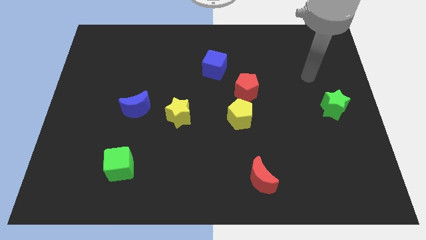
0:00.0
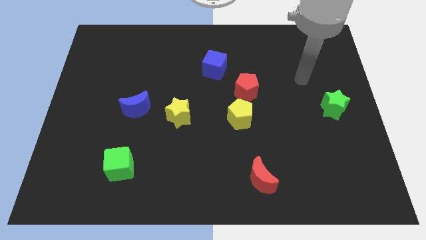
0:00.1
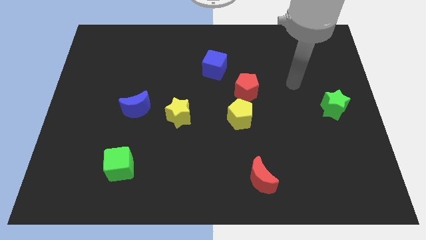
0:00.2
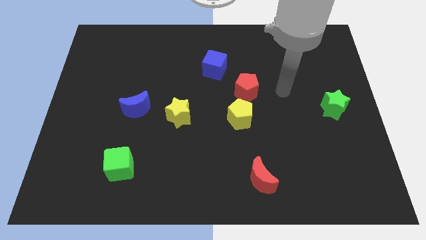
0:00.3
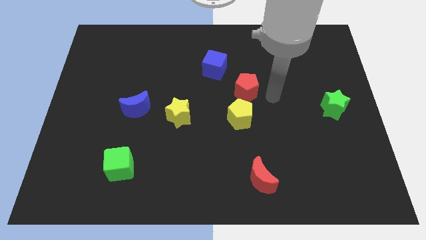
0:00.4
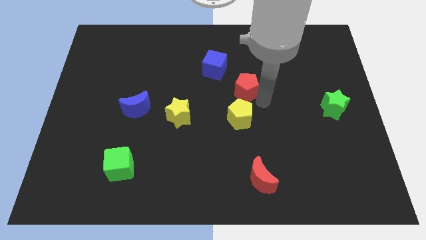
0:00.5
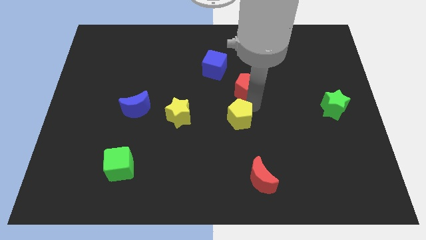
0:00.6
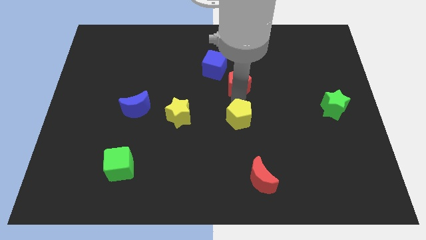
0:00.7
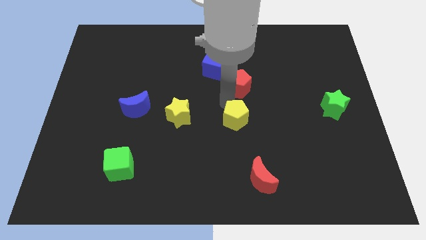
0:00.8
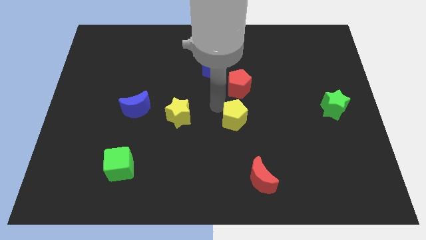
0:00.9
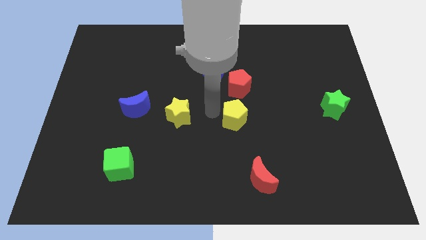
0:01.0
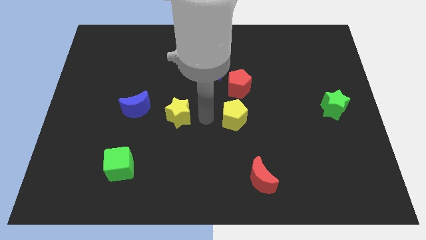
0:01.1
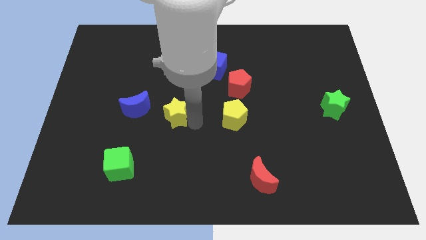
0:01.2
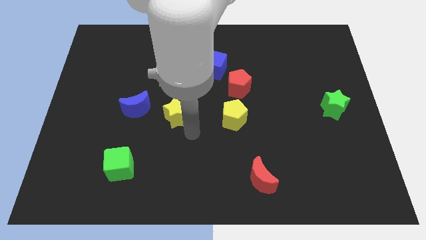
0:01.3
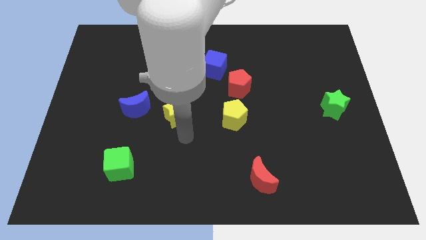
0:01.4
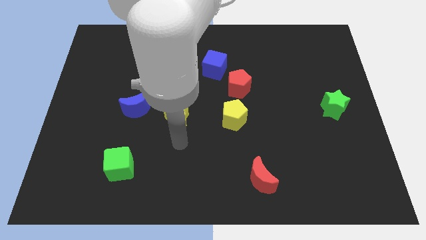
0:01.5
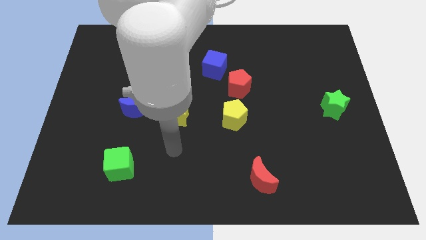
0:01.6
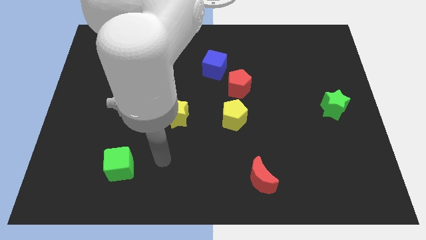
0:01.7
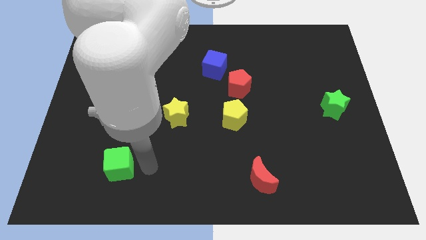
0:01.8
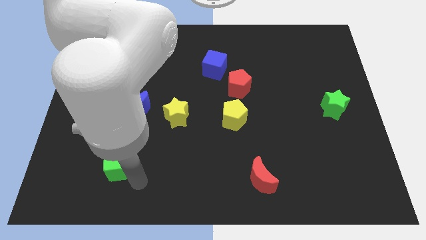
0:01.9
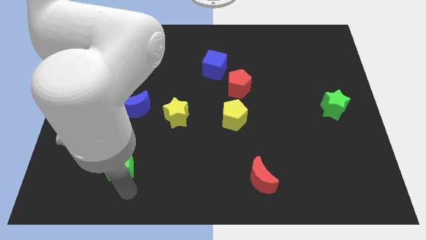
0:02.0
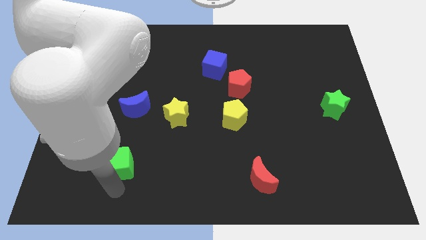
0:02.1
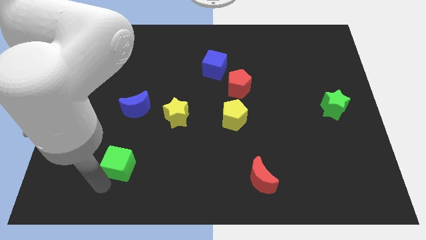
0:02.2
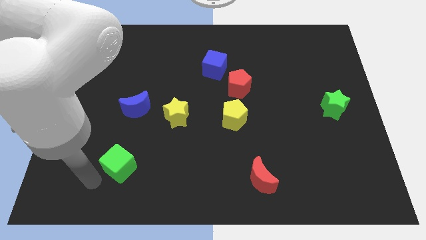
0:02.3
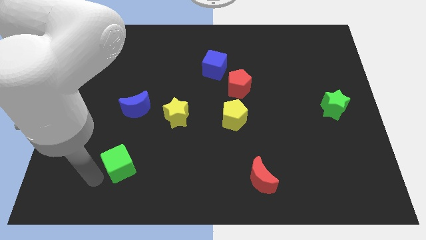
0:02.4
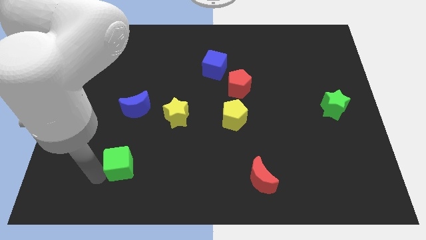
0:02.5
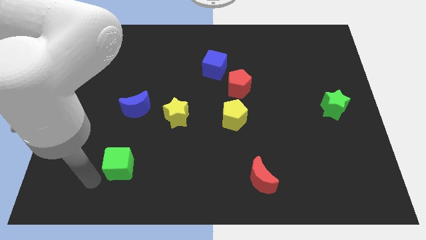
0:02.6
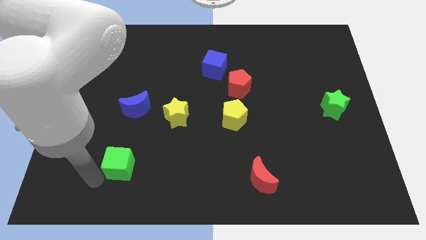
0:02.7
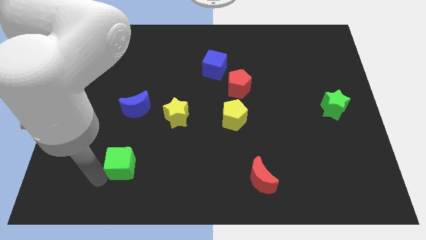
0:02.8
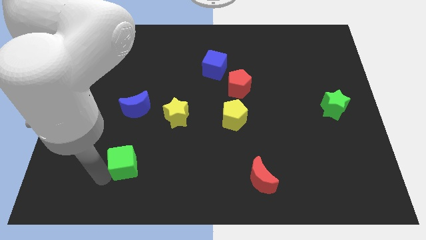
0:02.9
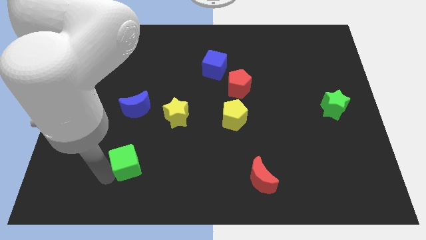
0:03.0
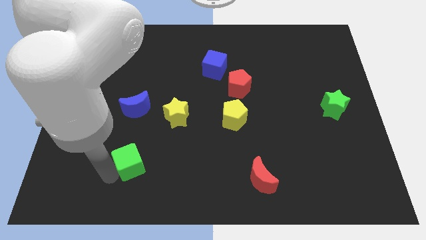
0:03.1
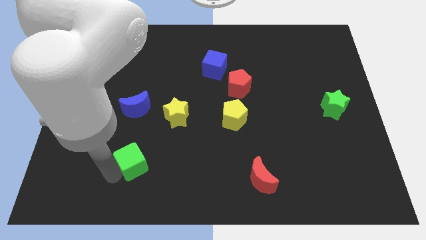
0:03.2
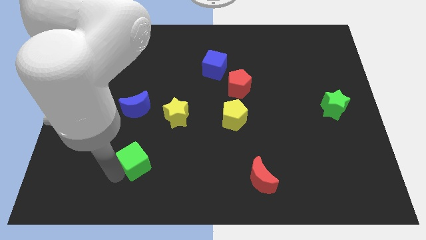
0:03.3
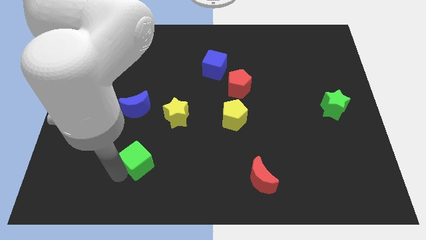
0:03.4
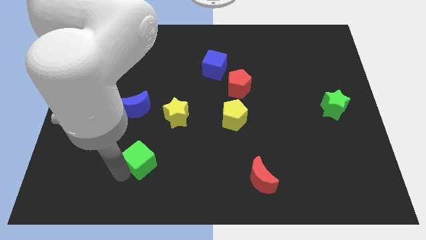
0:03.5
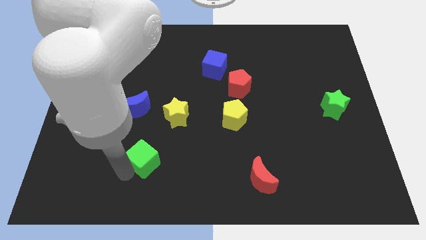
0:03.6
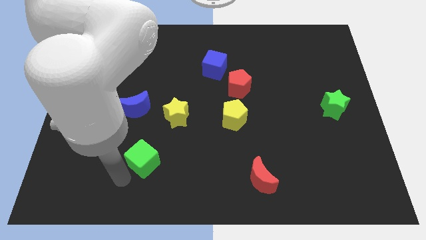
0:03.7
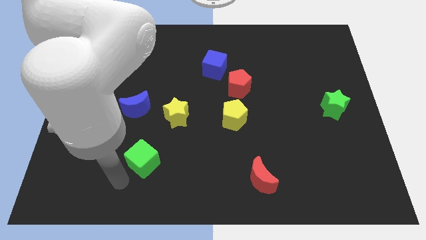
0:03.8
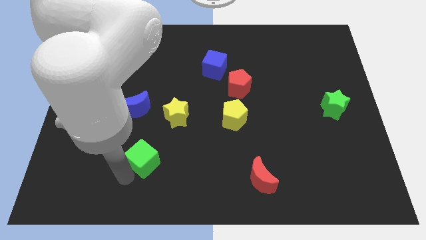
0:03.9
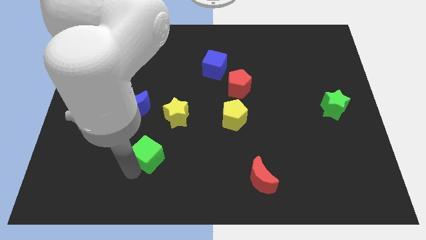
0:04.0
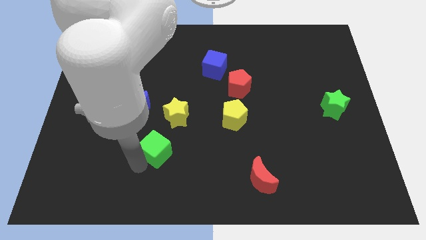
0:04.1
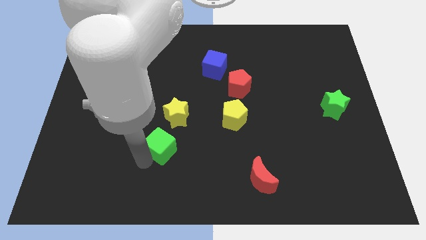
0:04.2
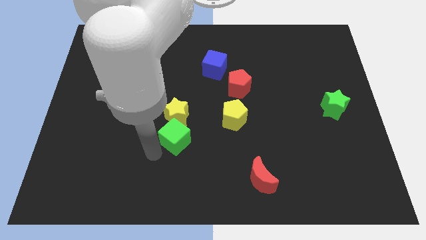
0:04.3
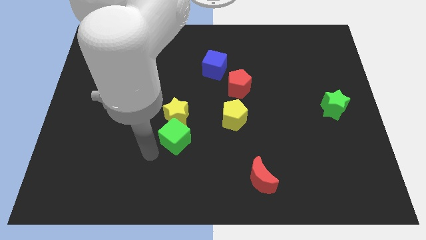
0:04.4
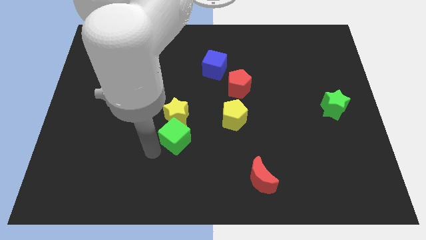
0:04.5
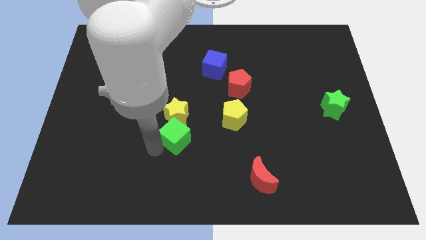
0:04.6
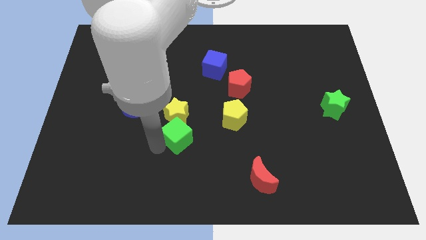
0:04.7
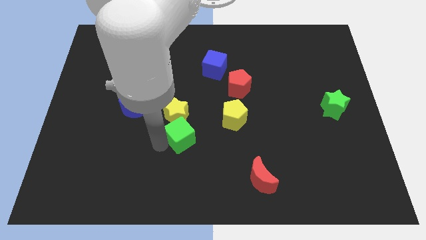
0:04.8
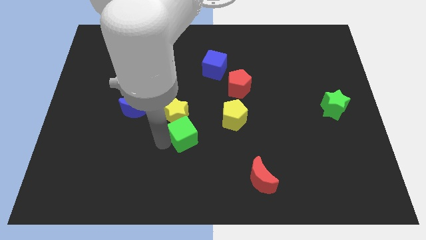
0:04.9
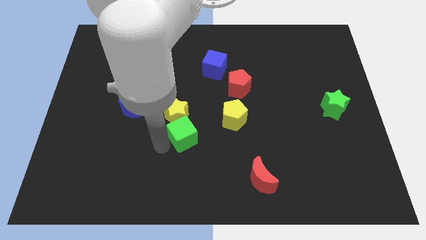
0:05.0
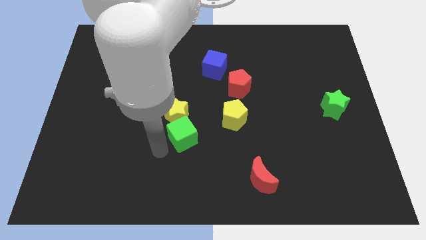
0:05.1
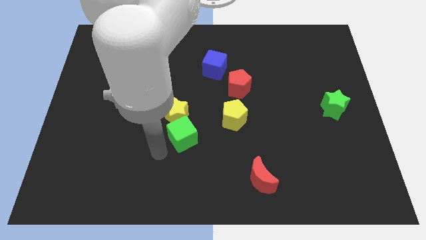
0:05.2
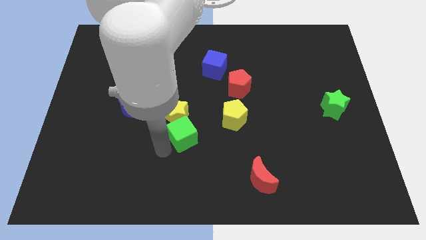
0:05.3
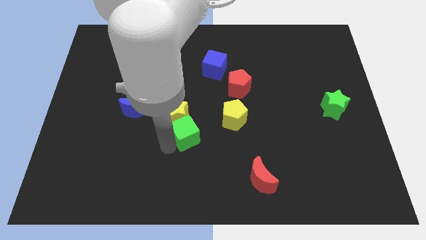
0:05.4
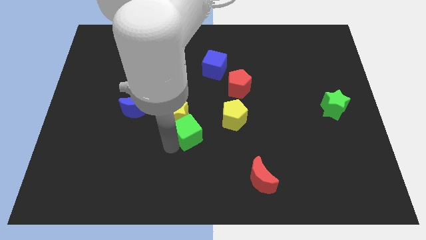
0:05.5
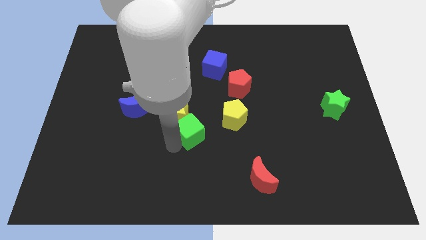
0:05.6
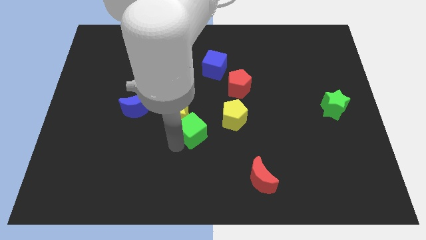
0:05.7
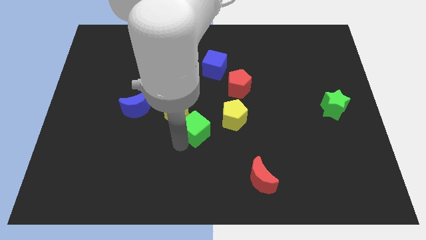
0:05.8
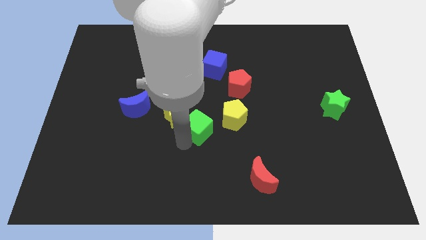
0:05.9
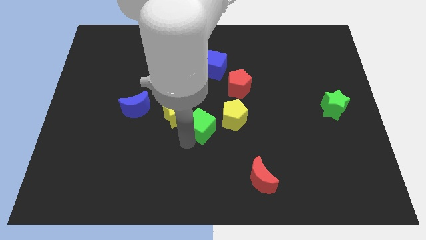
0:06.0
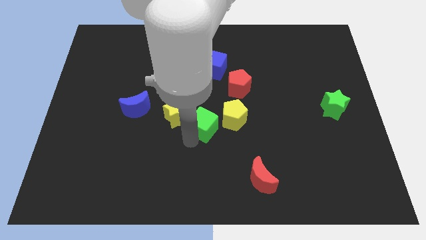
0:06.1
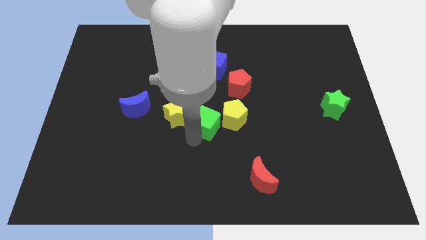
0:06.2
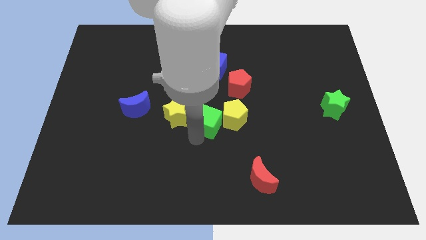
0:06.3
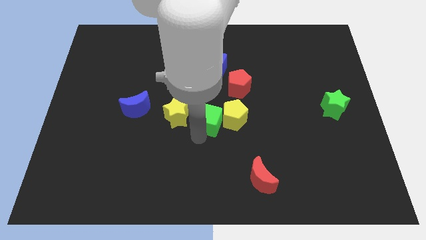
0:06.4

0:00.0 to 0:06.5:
push the green cube up and then right

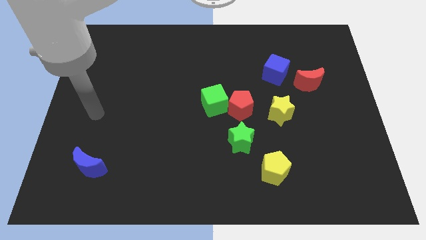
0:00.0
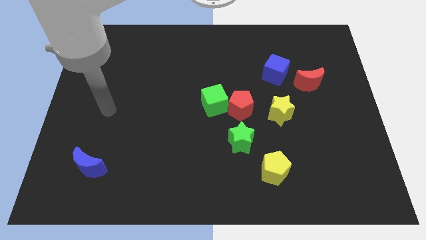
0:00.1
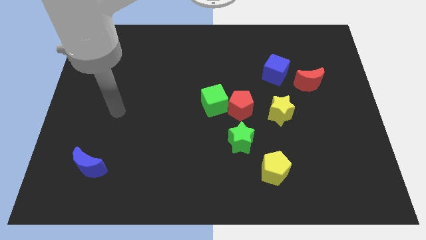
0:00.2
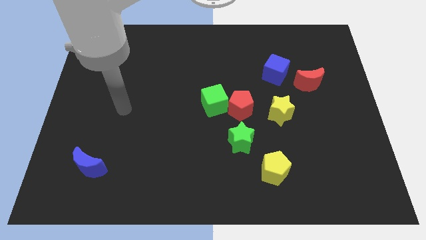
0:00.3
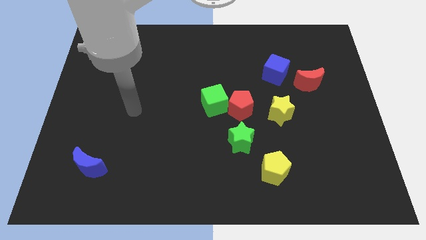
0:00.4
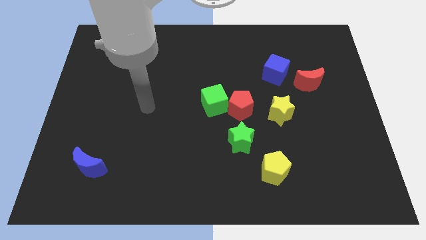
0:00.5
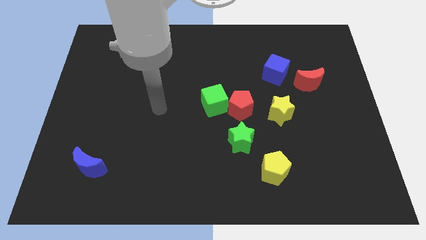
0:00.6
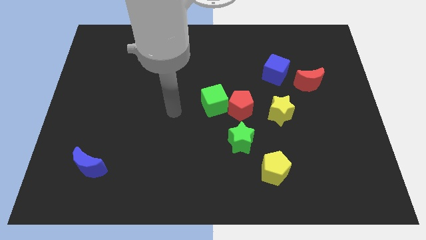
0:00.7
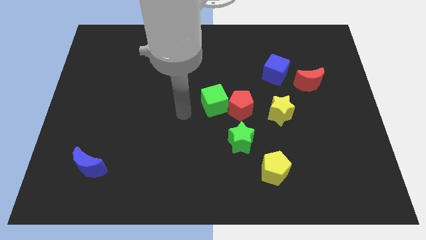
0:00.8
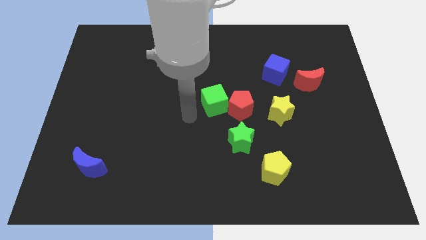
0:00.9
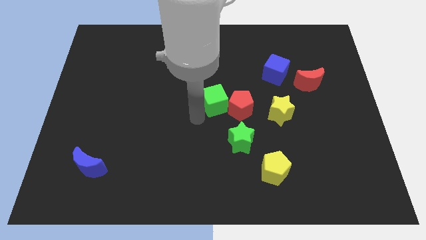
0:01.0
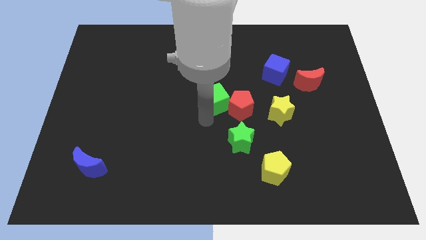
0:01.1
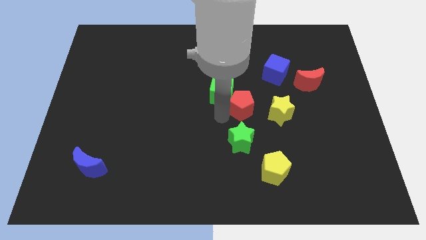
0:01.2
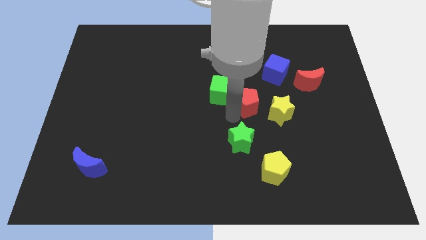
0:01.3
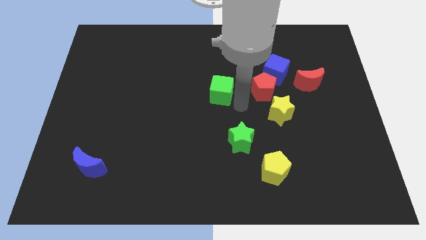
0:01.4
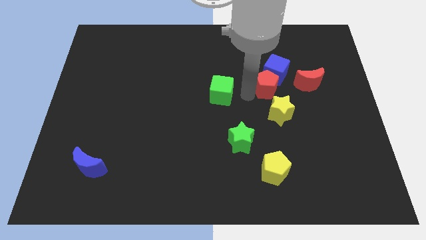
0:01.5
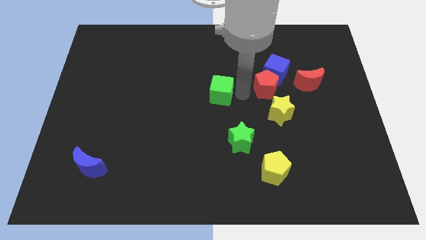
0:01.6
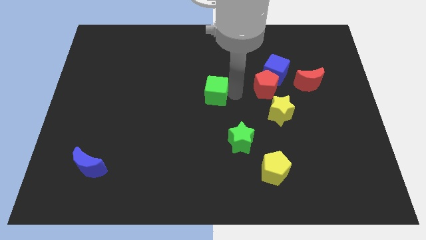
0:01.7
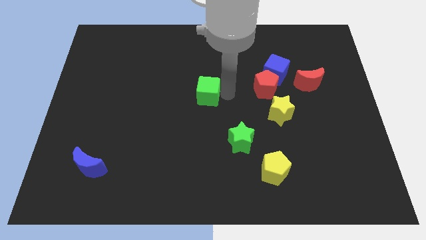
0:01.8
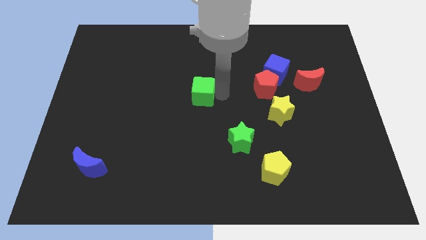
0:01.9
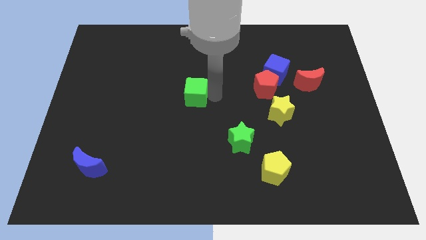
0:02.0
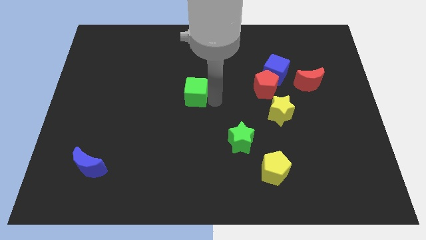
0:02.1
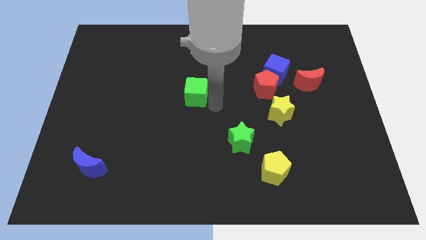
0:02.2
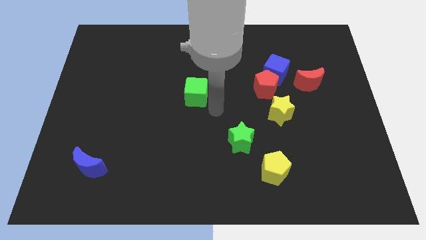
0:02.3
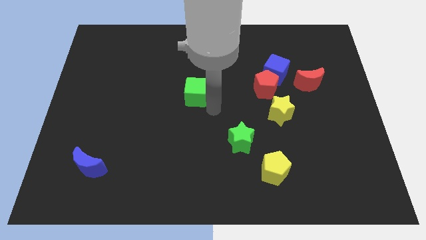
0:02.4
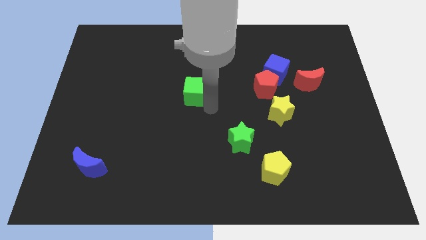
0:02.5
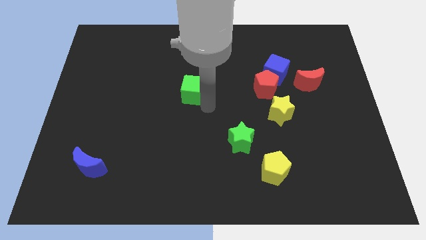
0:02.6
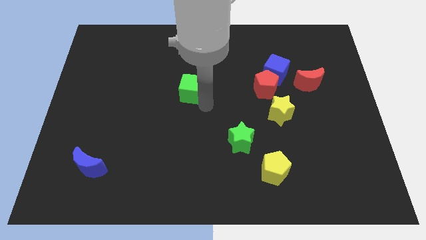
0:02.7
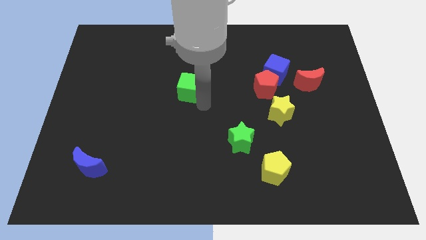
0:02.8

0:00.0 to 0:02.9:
push the green cube upwards and then to the left somewhat
